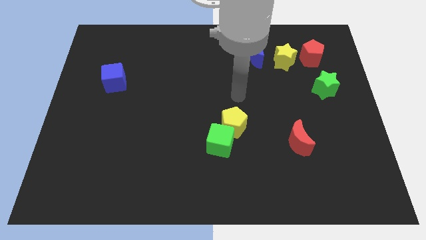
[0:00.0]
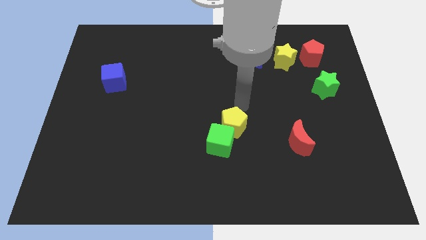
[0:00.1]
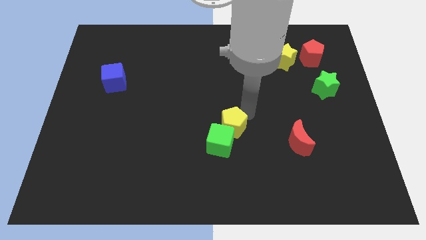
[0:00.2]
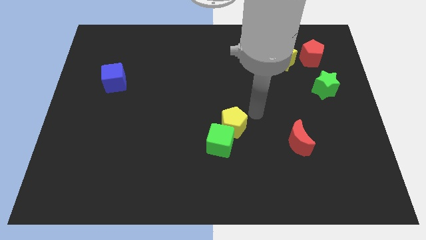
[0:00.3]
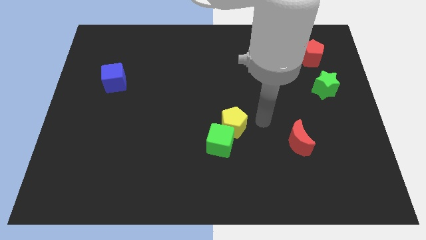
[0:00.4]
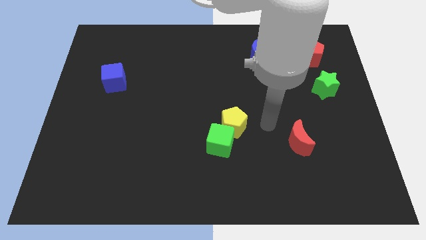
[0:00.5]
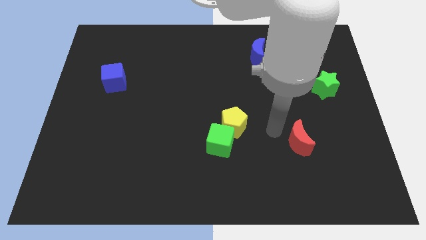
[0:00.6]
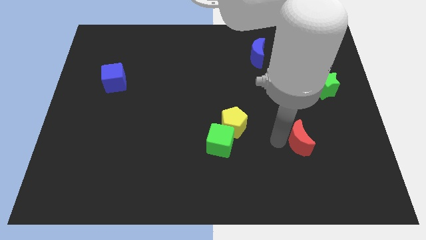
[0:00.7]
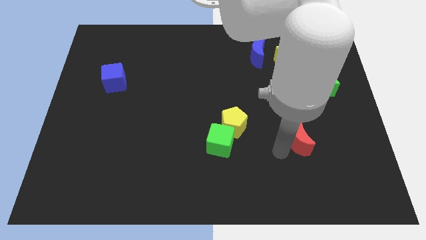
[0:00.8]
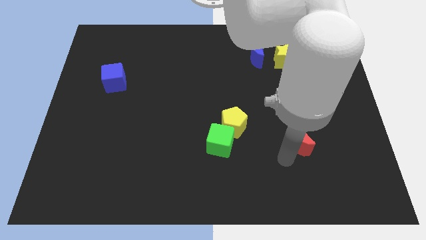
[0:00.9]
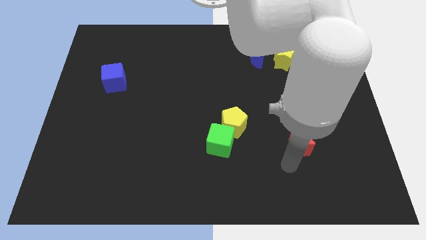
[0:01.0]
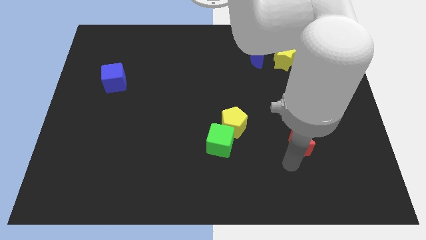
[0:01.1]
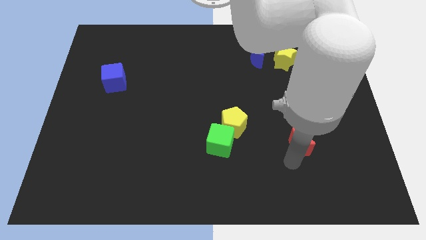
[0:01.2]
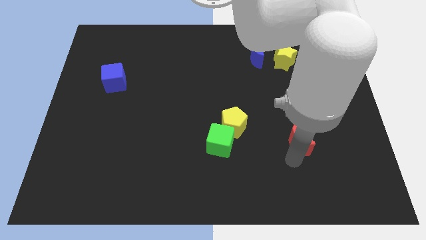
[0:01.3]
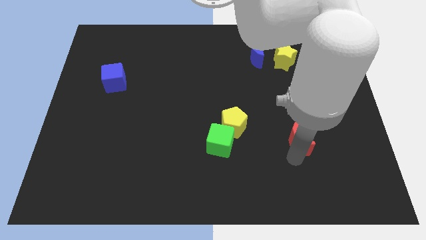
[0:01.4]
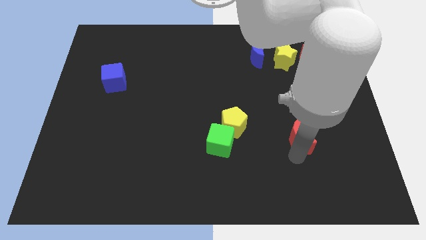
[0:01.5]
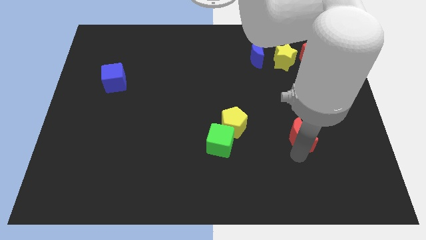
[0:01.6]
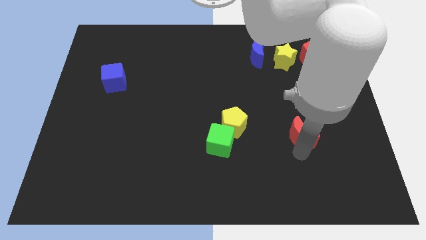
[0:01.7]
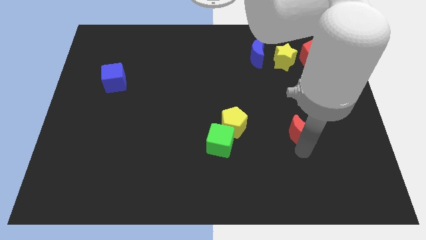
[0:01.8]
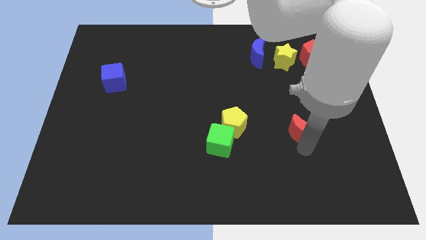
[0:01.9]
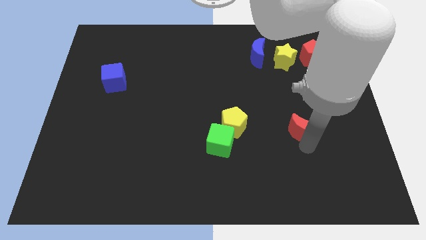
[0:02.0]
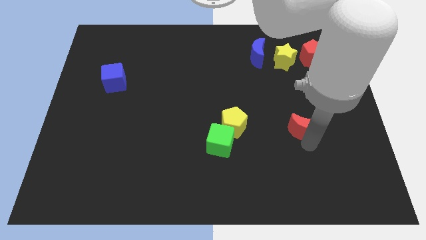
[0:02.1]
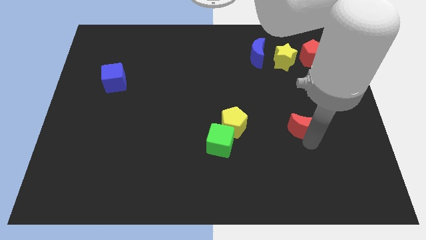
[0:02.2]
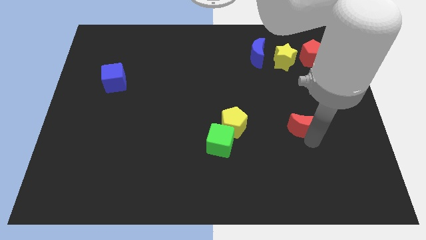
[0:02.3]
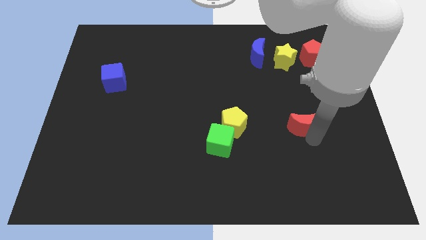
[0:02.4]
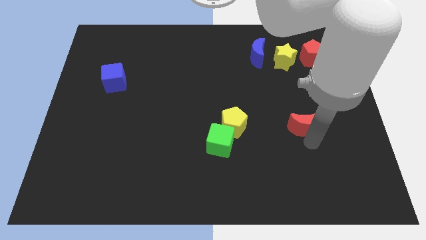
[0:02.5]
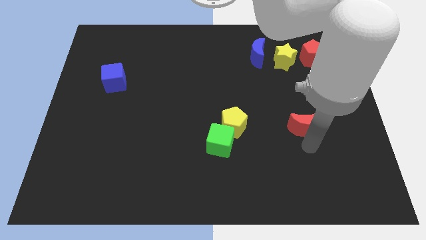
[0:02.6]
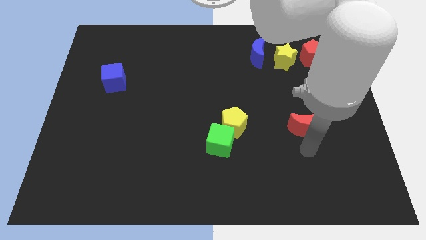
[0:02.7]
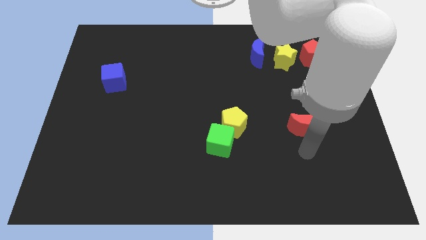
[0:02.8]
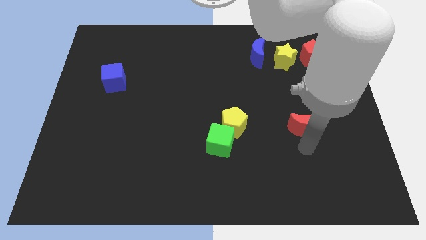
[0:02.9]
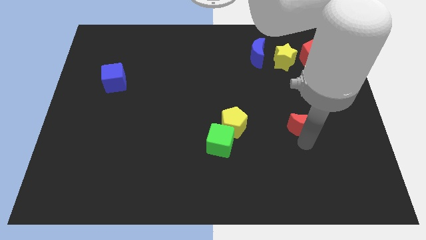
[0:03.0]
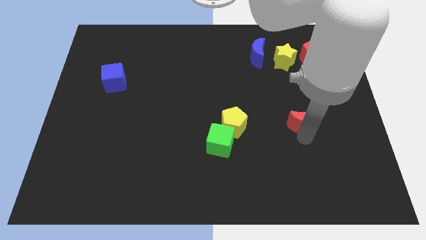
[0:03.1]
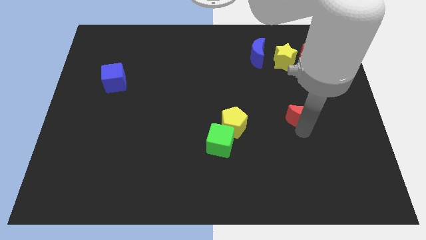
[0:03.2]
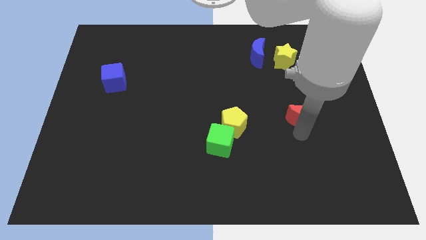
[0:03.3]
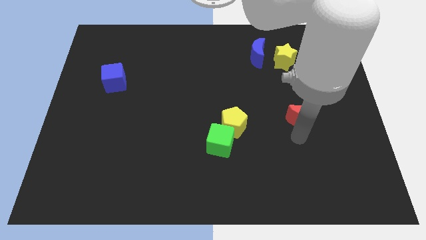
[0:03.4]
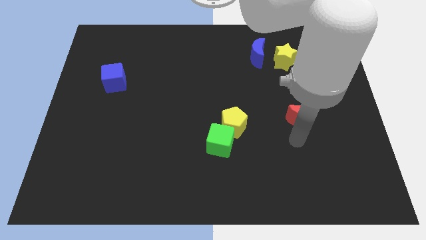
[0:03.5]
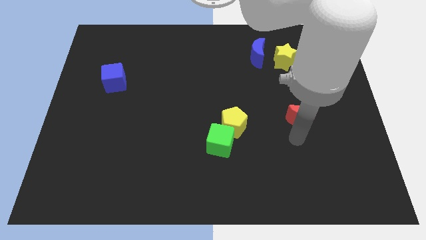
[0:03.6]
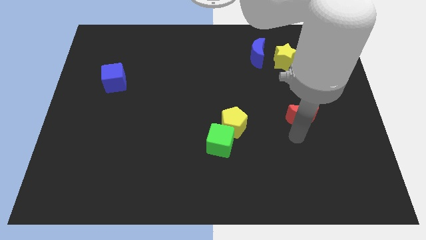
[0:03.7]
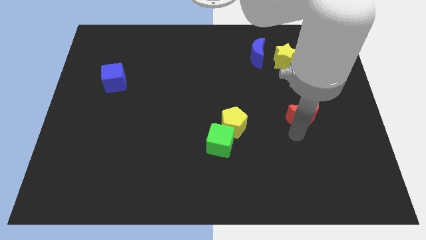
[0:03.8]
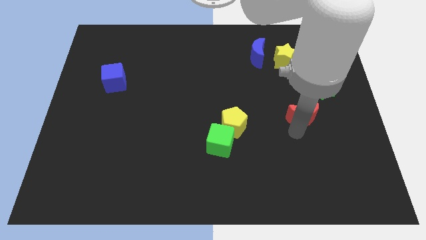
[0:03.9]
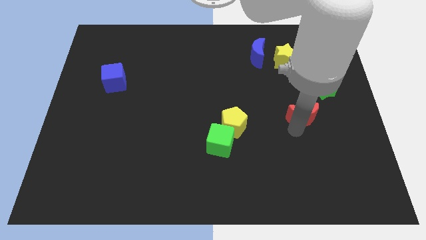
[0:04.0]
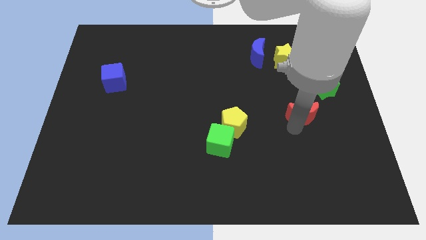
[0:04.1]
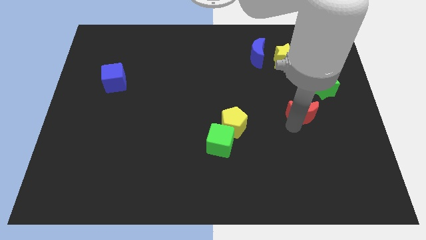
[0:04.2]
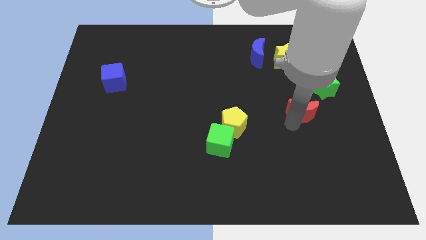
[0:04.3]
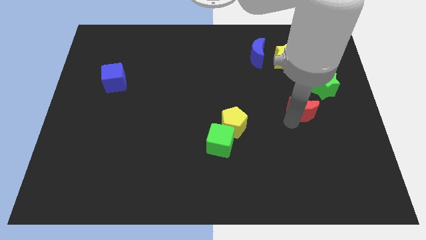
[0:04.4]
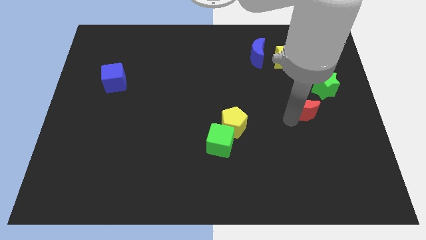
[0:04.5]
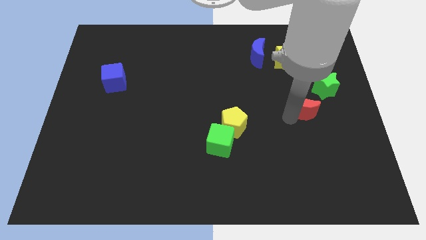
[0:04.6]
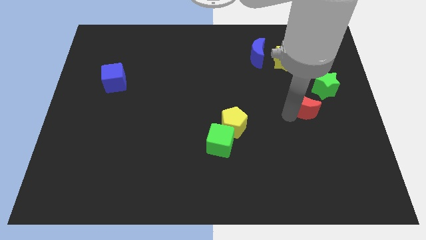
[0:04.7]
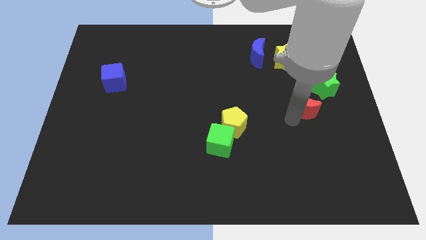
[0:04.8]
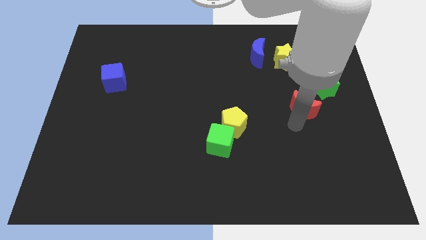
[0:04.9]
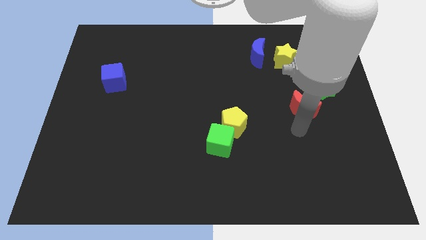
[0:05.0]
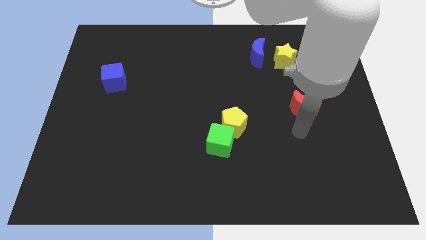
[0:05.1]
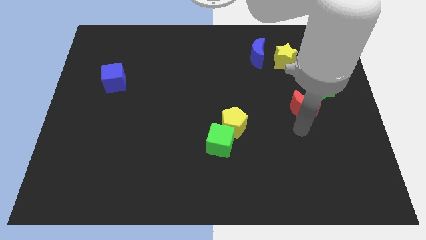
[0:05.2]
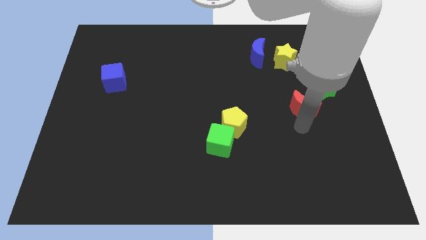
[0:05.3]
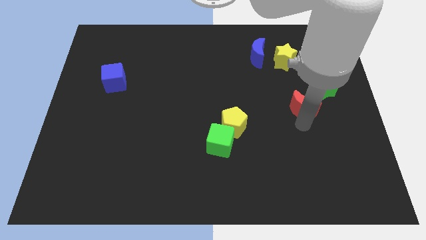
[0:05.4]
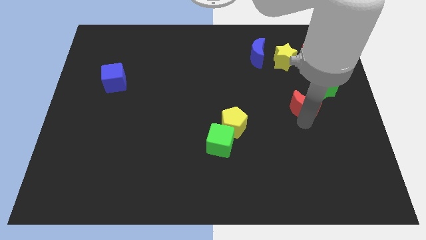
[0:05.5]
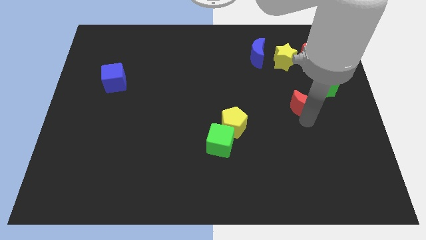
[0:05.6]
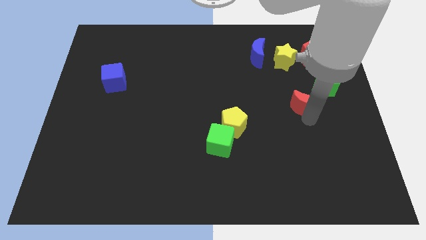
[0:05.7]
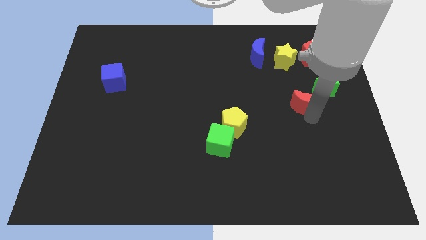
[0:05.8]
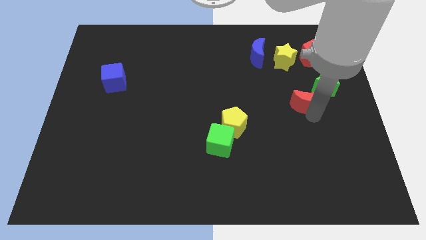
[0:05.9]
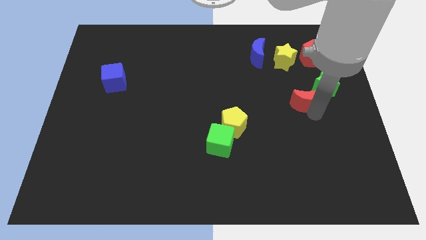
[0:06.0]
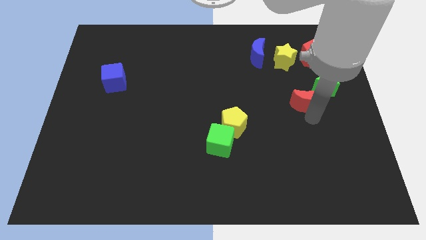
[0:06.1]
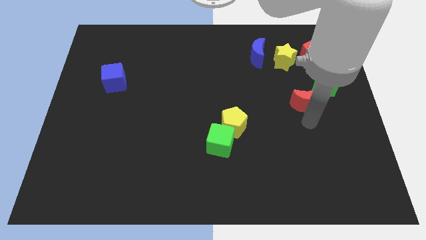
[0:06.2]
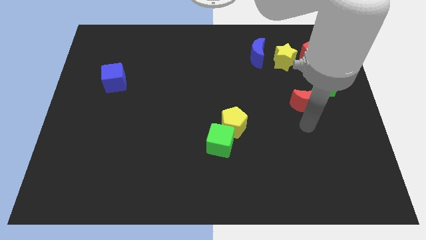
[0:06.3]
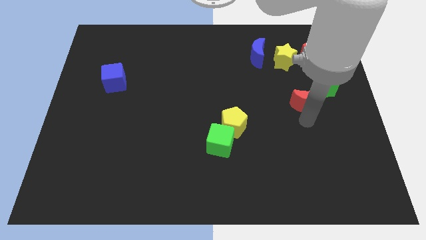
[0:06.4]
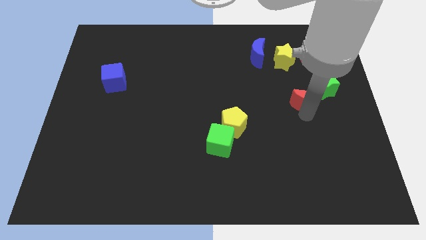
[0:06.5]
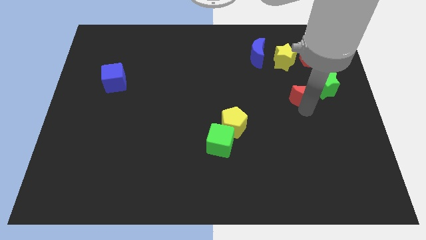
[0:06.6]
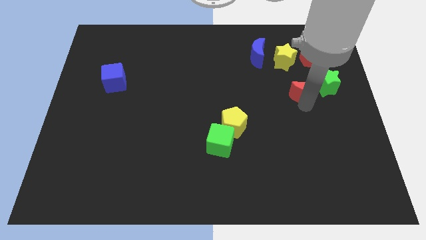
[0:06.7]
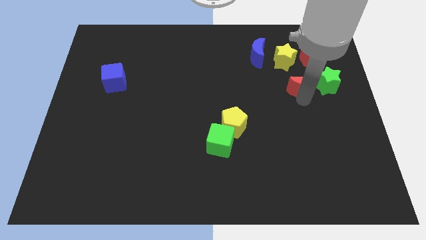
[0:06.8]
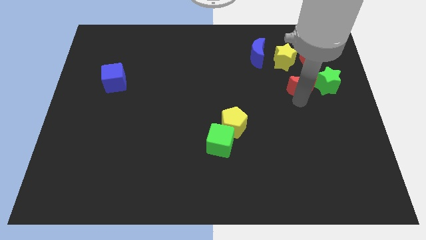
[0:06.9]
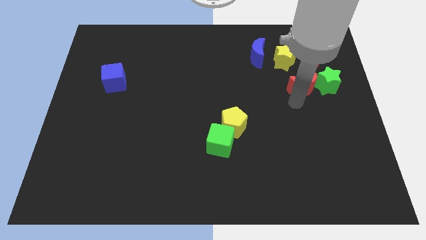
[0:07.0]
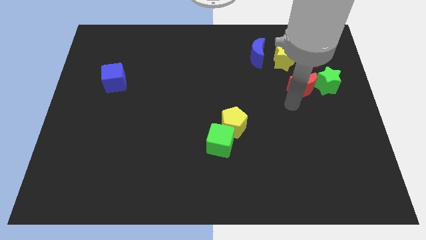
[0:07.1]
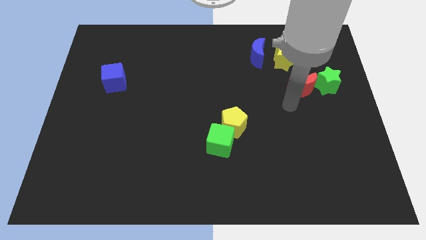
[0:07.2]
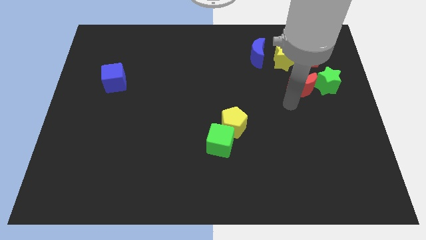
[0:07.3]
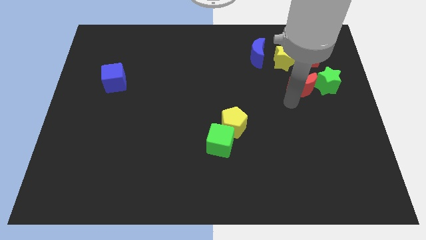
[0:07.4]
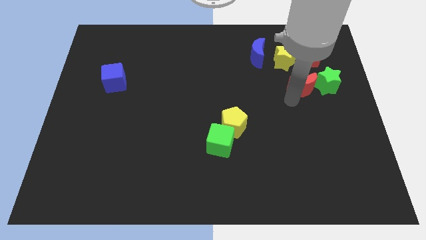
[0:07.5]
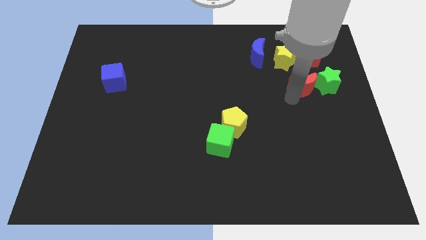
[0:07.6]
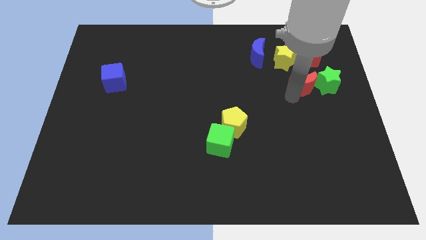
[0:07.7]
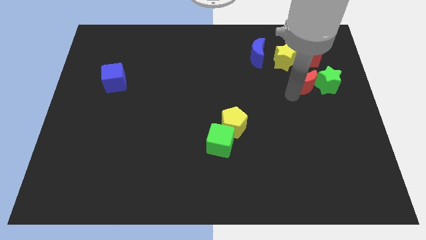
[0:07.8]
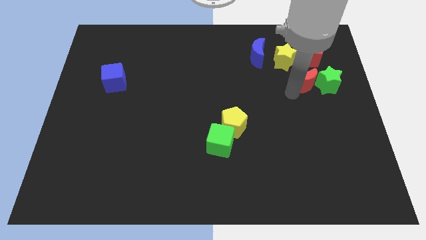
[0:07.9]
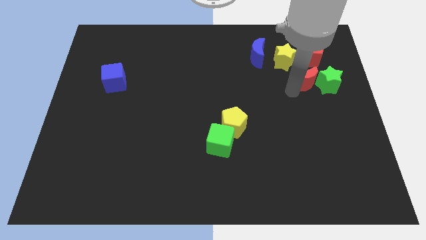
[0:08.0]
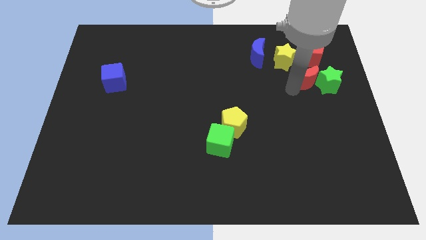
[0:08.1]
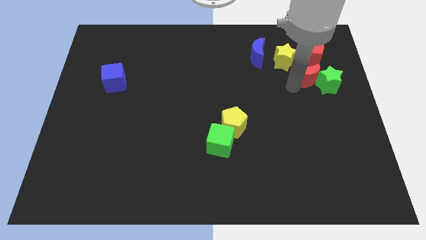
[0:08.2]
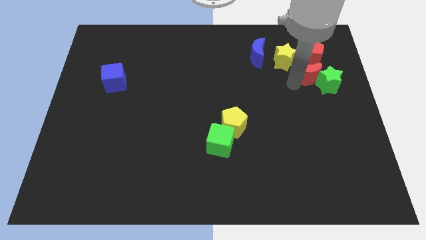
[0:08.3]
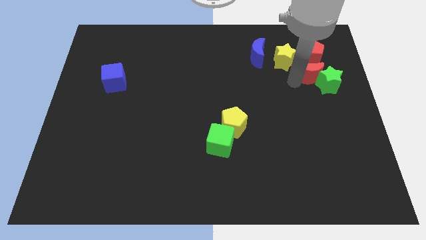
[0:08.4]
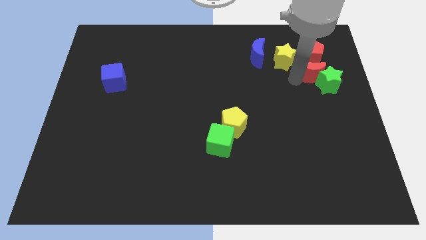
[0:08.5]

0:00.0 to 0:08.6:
put the red moon to the top side of the green star
